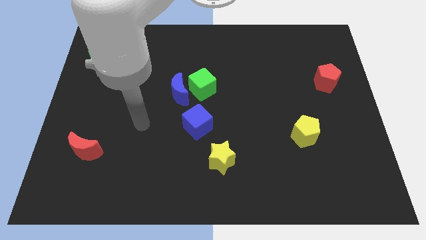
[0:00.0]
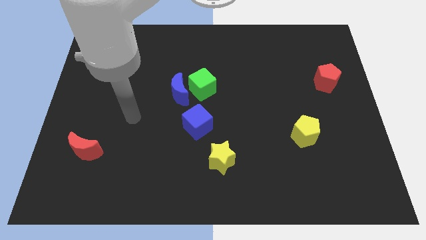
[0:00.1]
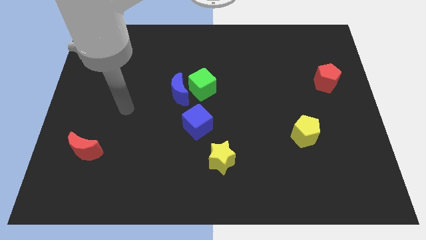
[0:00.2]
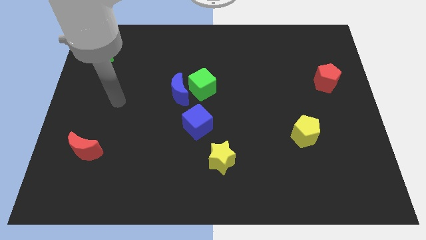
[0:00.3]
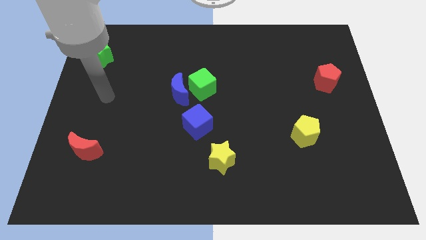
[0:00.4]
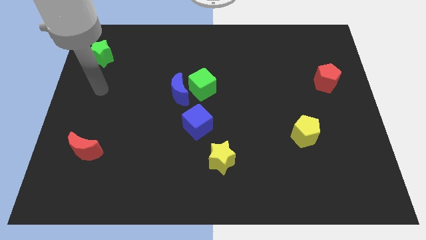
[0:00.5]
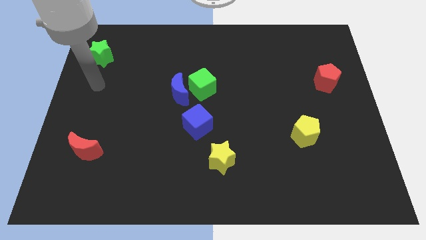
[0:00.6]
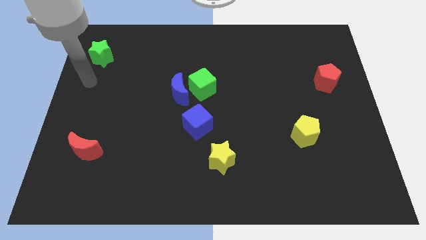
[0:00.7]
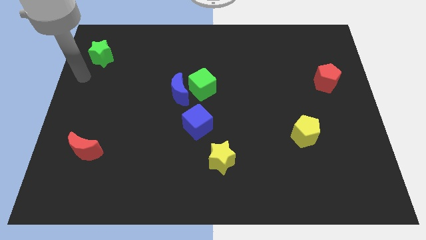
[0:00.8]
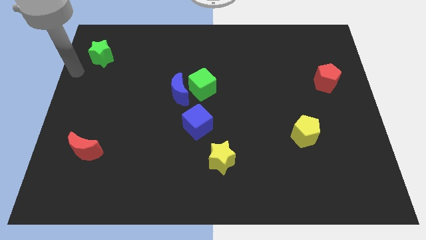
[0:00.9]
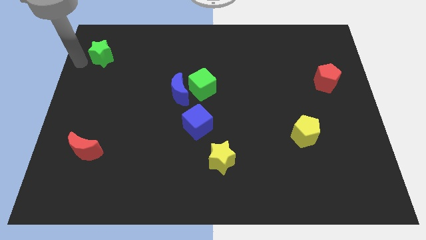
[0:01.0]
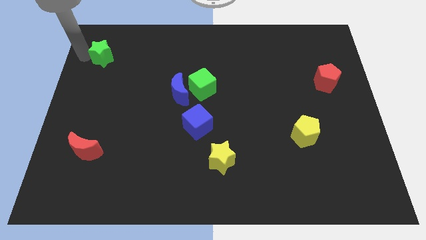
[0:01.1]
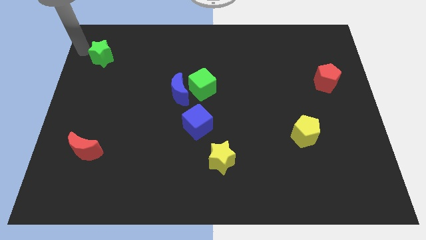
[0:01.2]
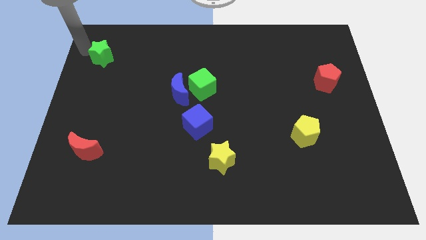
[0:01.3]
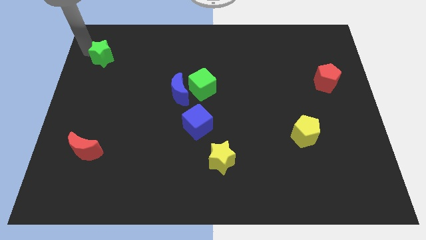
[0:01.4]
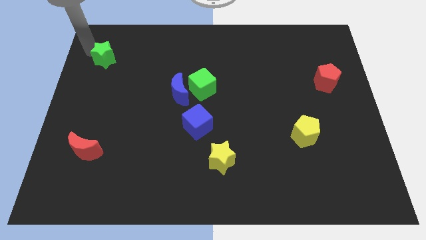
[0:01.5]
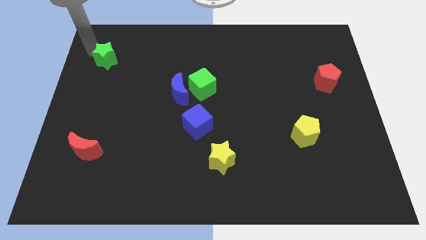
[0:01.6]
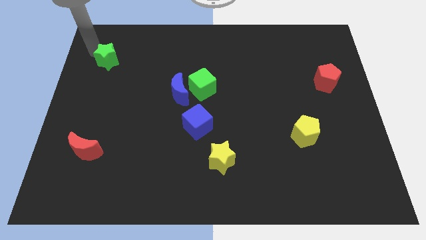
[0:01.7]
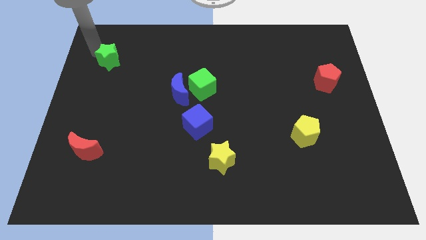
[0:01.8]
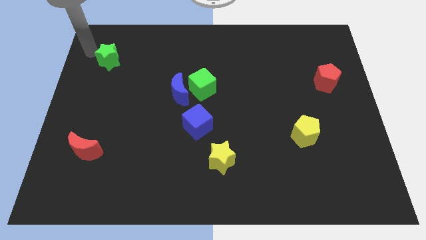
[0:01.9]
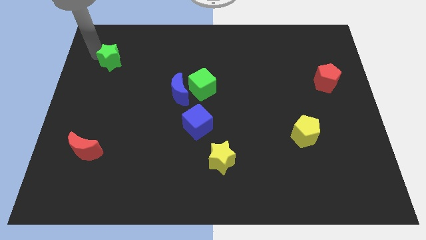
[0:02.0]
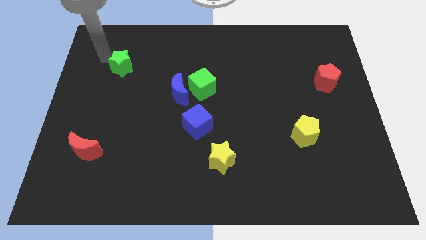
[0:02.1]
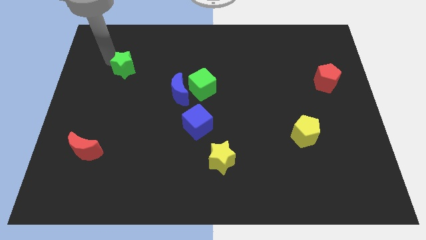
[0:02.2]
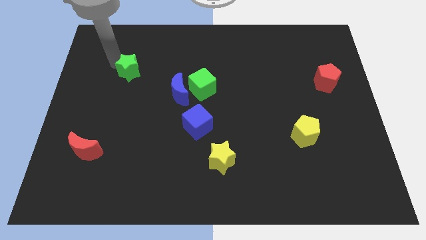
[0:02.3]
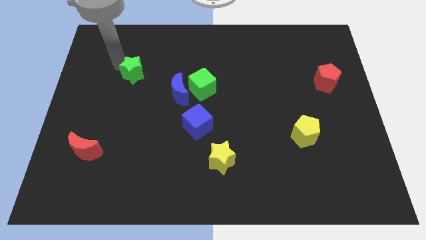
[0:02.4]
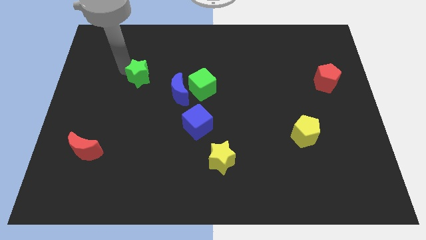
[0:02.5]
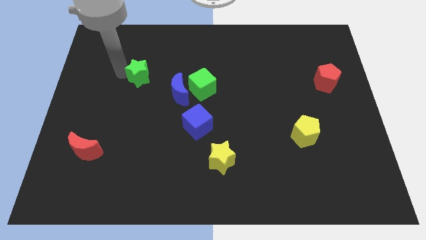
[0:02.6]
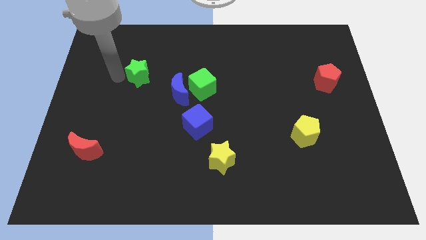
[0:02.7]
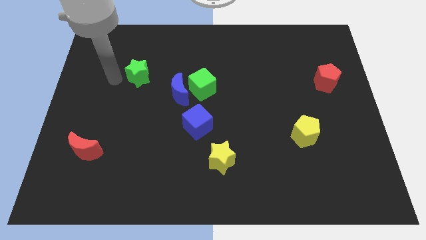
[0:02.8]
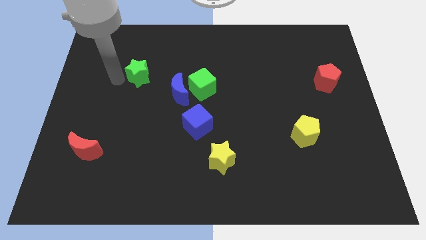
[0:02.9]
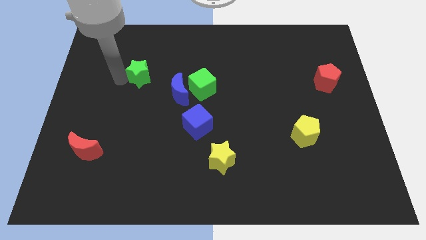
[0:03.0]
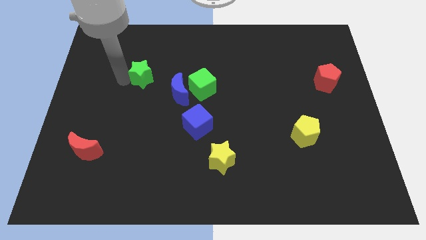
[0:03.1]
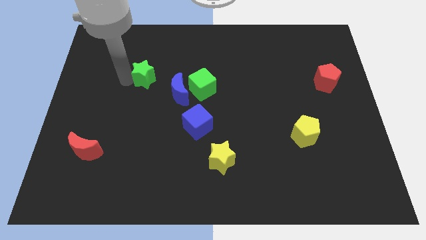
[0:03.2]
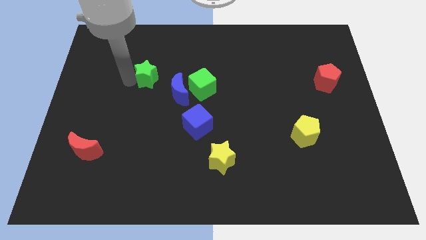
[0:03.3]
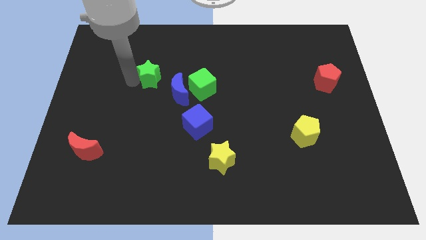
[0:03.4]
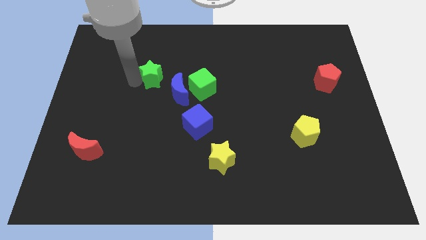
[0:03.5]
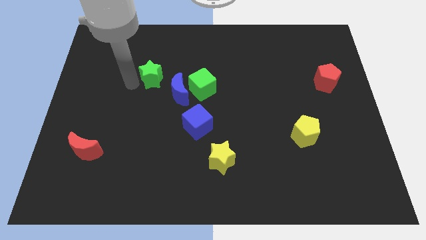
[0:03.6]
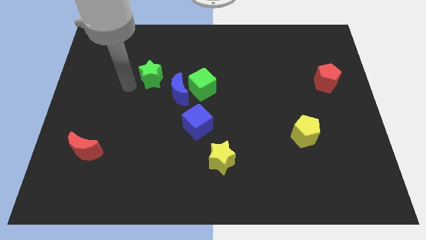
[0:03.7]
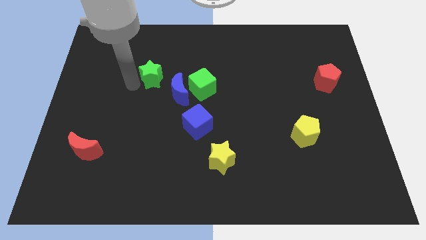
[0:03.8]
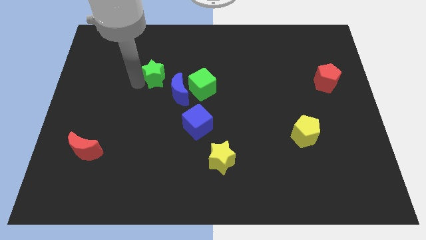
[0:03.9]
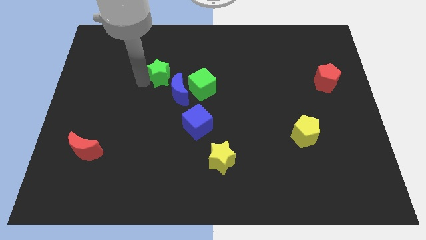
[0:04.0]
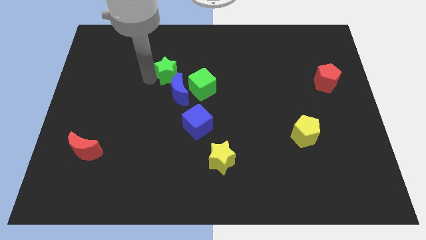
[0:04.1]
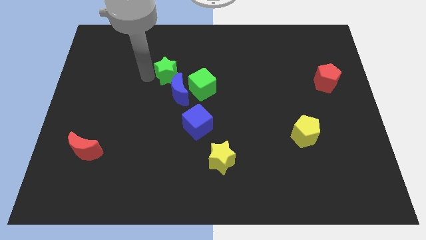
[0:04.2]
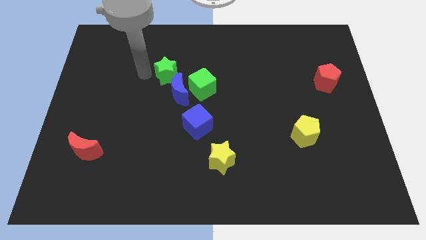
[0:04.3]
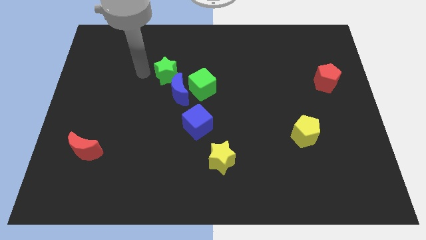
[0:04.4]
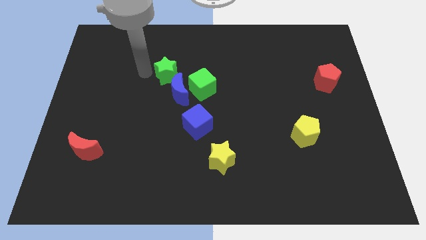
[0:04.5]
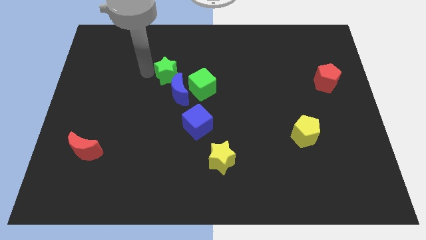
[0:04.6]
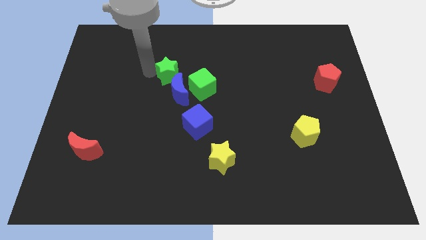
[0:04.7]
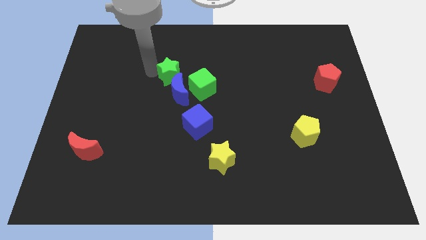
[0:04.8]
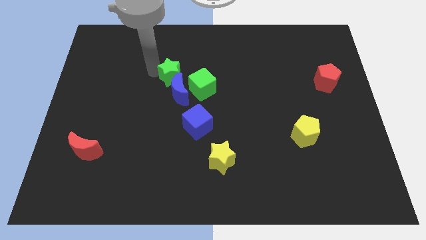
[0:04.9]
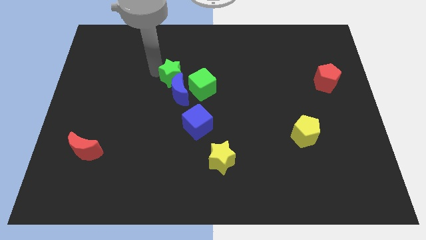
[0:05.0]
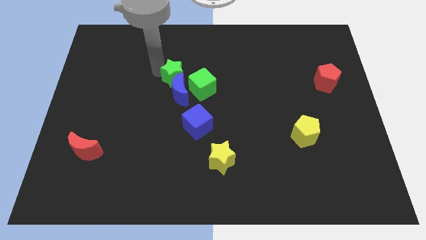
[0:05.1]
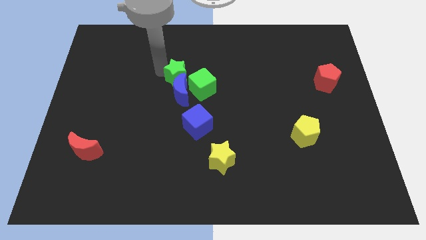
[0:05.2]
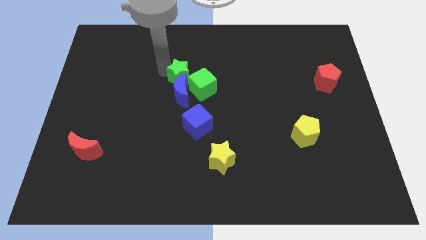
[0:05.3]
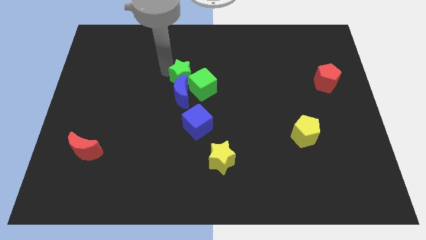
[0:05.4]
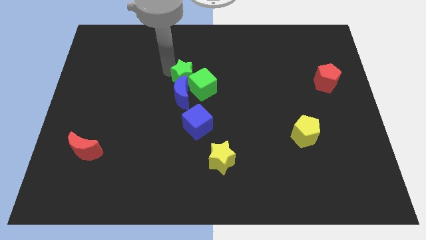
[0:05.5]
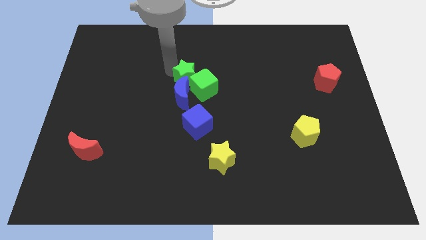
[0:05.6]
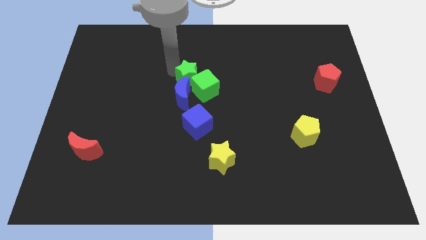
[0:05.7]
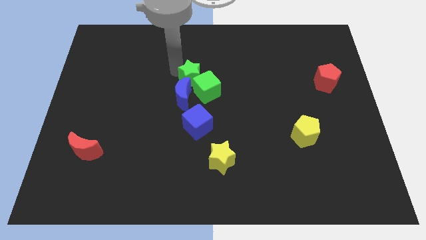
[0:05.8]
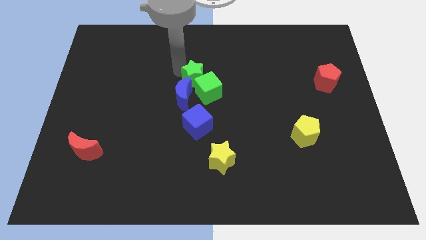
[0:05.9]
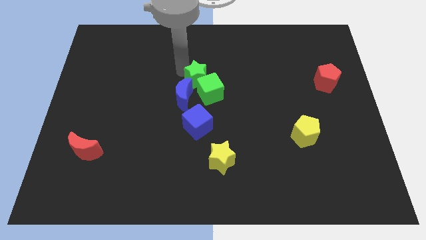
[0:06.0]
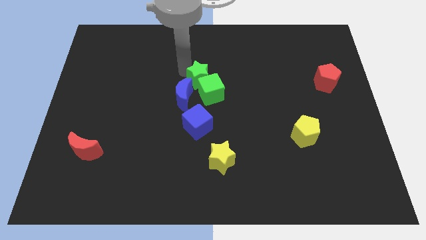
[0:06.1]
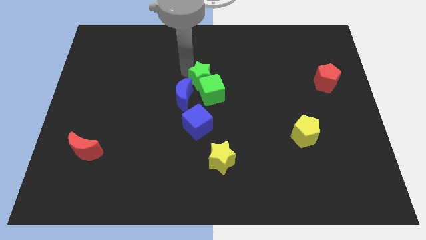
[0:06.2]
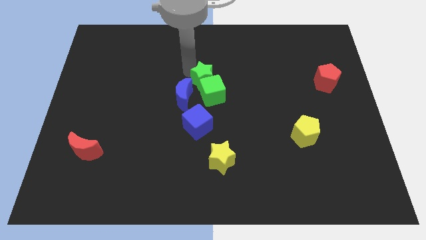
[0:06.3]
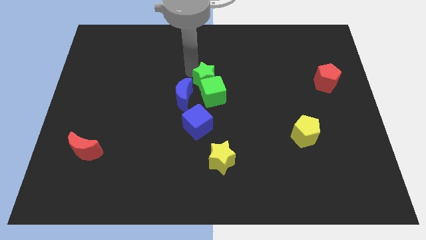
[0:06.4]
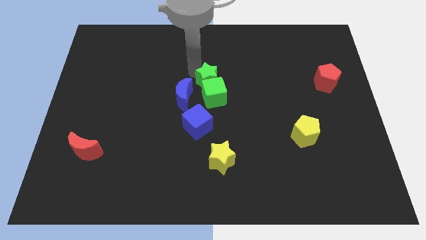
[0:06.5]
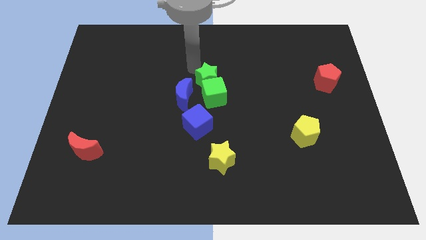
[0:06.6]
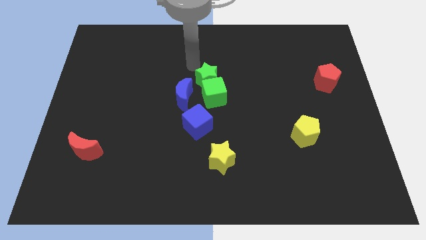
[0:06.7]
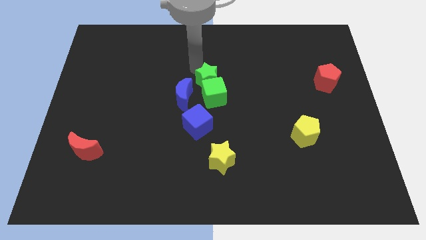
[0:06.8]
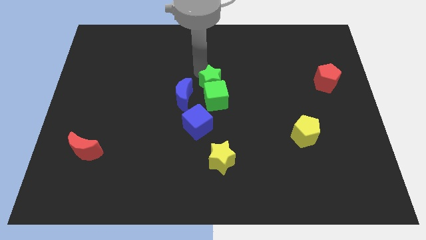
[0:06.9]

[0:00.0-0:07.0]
put the green star to the right of the blue moon
